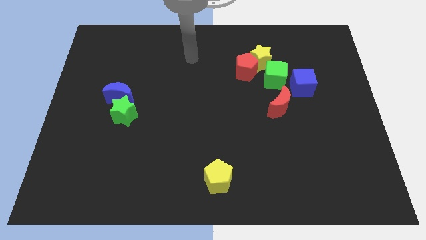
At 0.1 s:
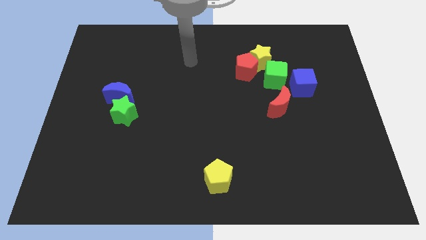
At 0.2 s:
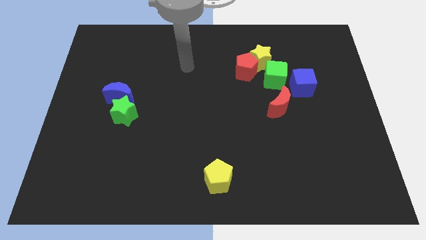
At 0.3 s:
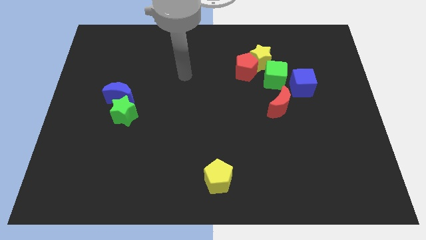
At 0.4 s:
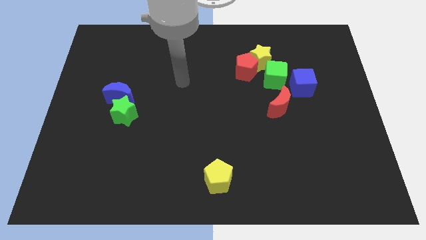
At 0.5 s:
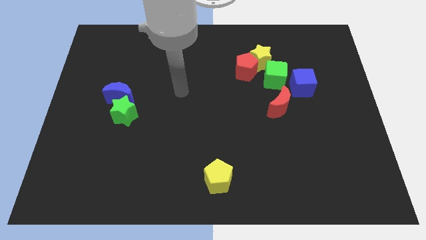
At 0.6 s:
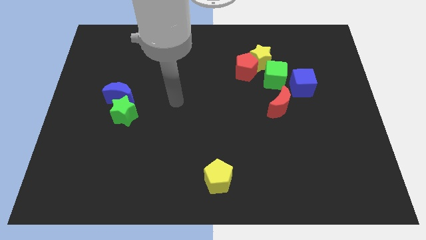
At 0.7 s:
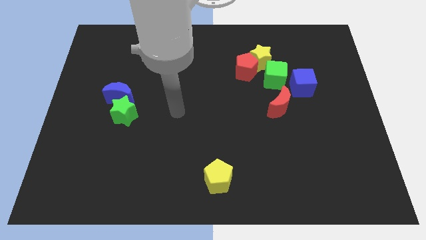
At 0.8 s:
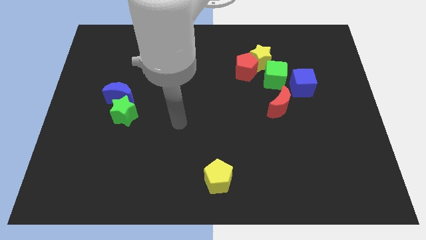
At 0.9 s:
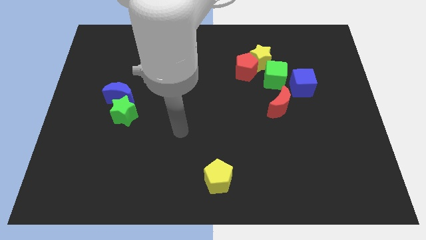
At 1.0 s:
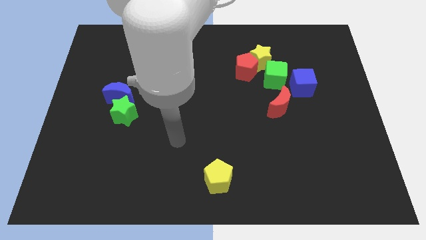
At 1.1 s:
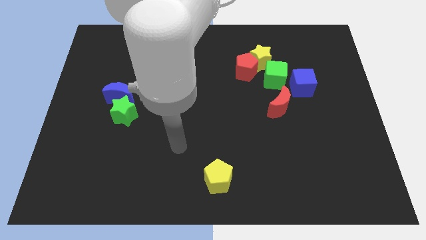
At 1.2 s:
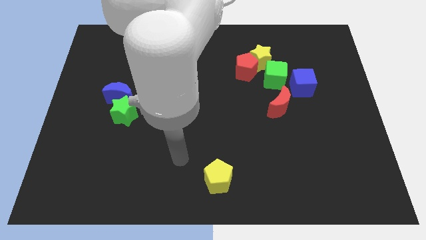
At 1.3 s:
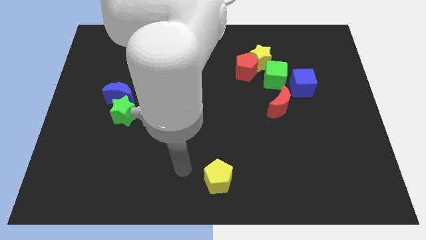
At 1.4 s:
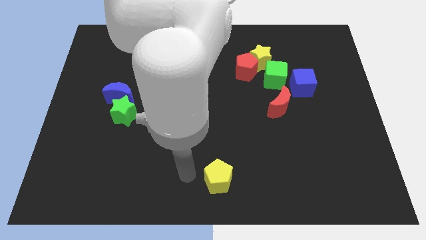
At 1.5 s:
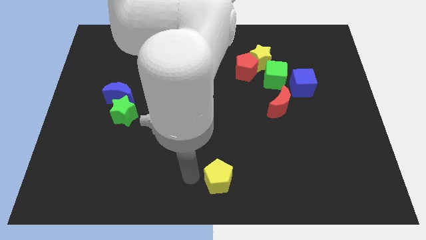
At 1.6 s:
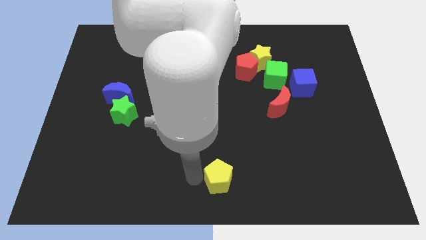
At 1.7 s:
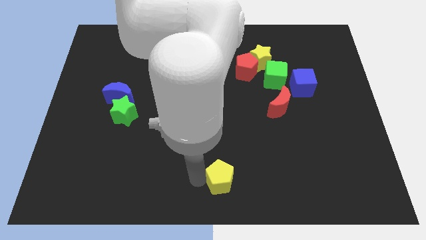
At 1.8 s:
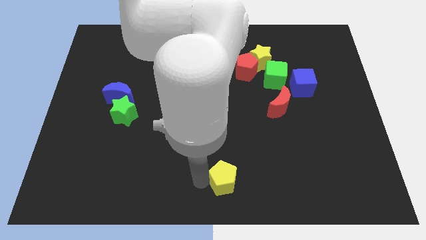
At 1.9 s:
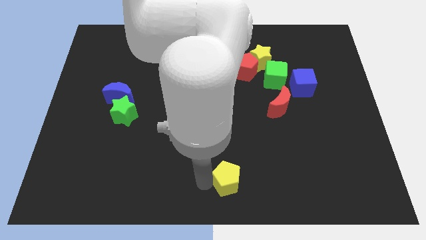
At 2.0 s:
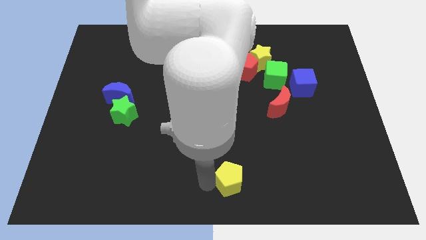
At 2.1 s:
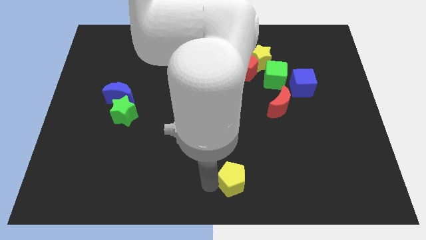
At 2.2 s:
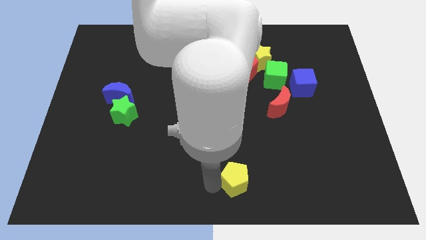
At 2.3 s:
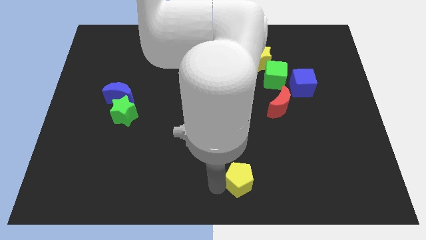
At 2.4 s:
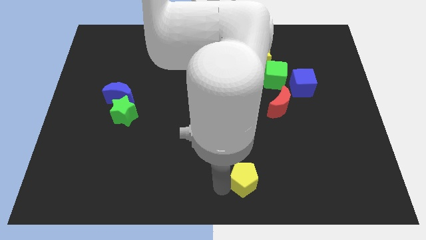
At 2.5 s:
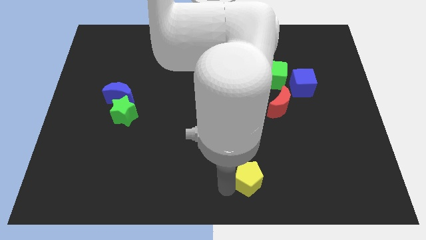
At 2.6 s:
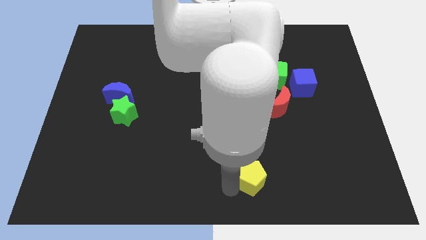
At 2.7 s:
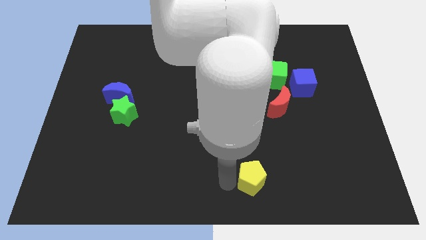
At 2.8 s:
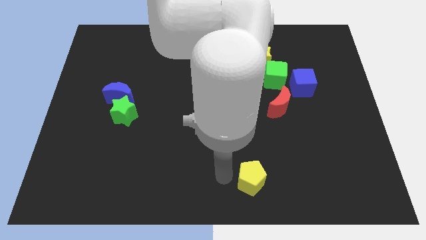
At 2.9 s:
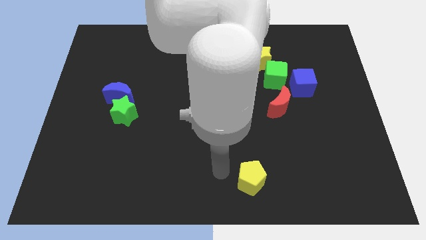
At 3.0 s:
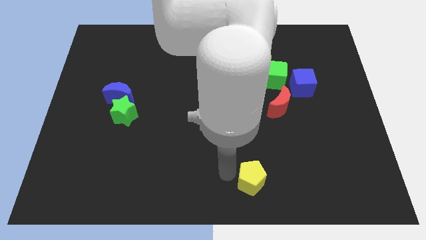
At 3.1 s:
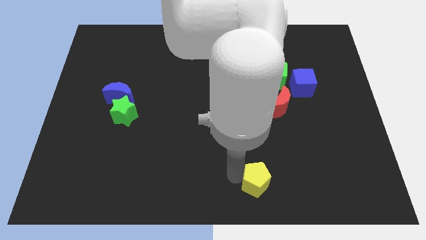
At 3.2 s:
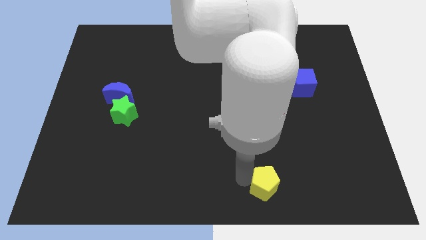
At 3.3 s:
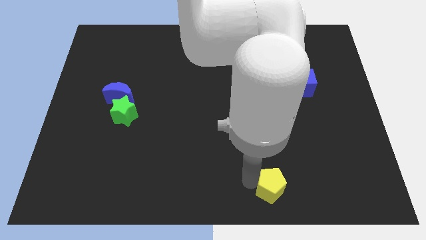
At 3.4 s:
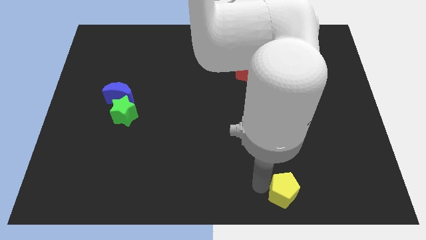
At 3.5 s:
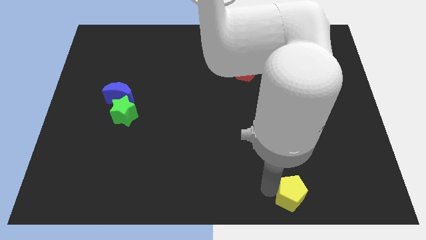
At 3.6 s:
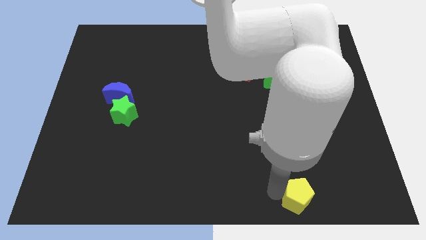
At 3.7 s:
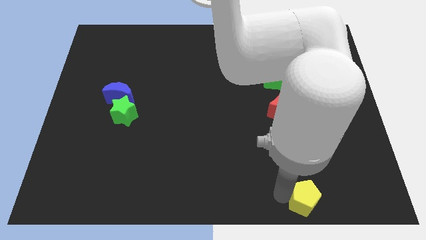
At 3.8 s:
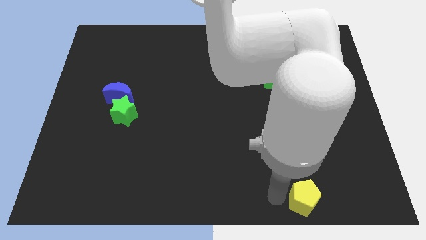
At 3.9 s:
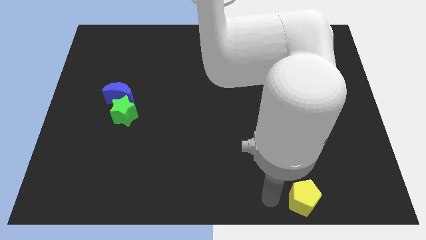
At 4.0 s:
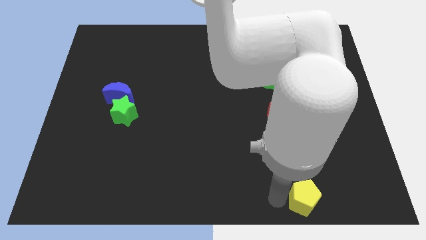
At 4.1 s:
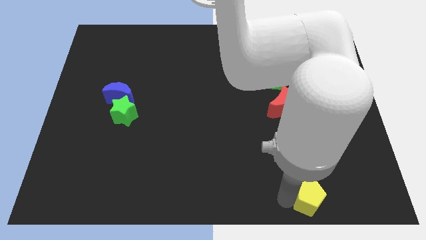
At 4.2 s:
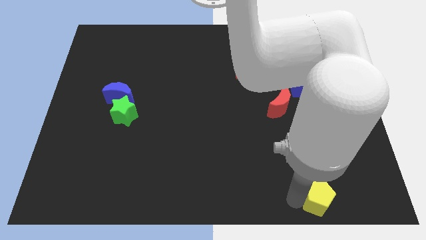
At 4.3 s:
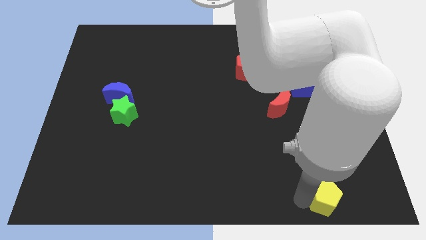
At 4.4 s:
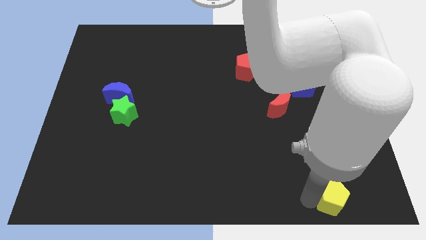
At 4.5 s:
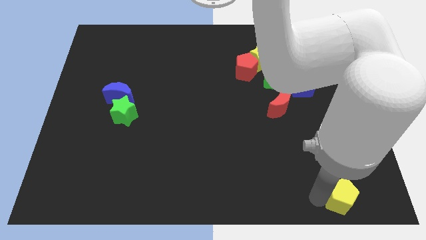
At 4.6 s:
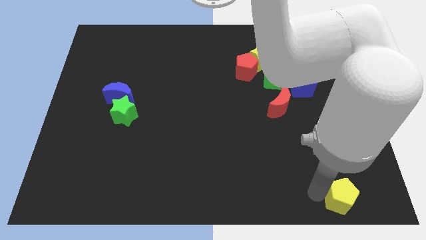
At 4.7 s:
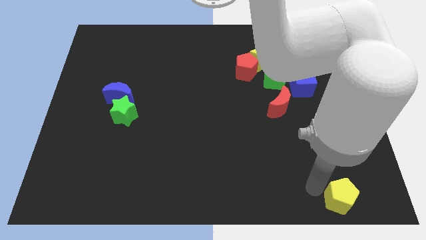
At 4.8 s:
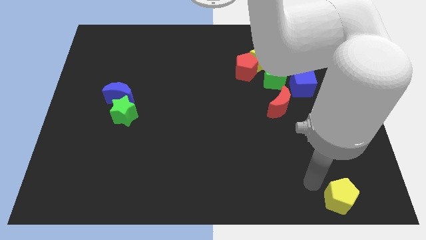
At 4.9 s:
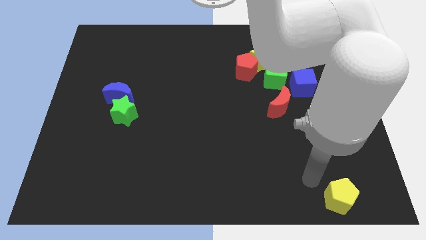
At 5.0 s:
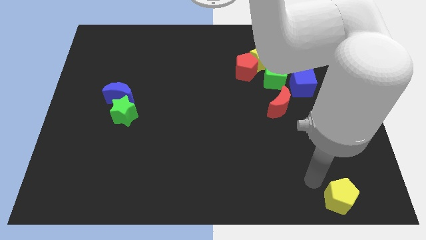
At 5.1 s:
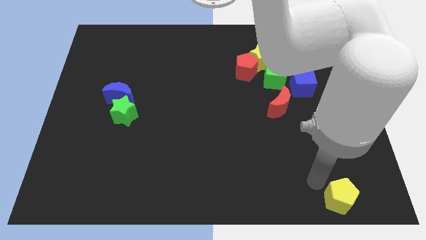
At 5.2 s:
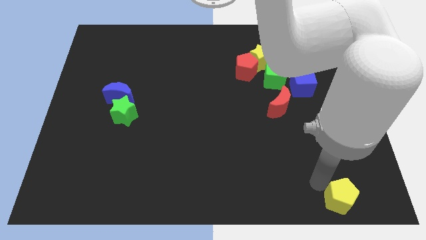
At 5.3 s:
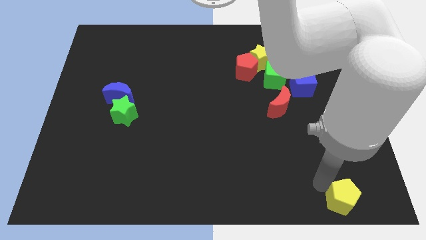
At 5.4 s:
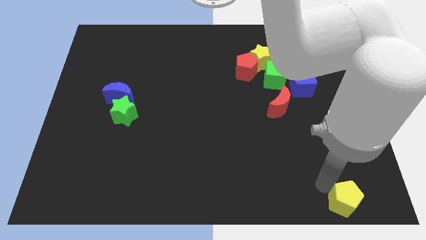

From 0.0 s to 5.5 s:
put the yellow pentagon to the bottom right corner
